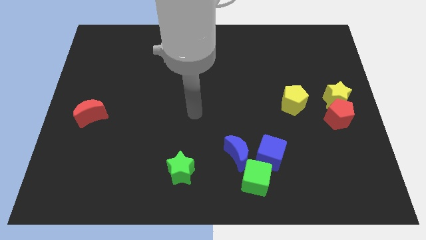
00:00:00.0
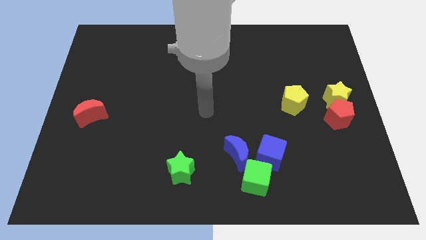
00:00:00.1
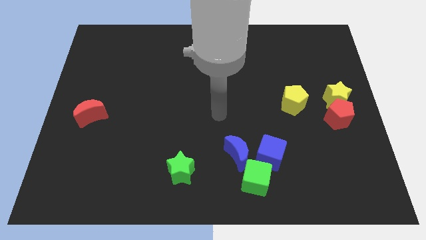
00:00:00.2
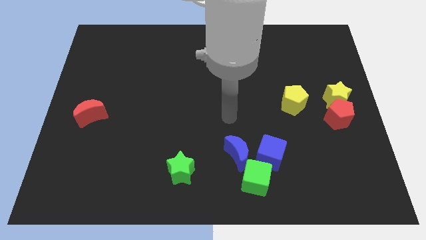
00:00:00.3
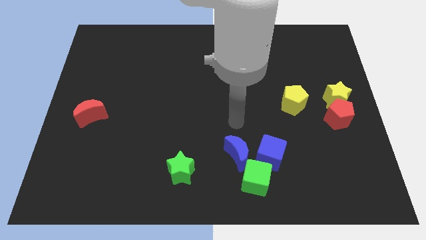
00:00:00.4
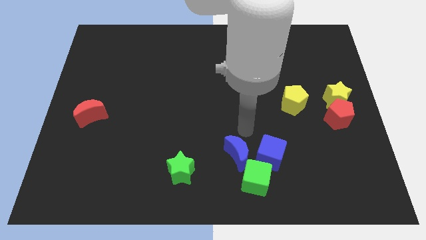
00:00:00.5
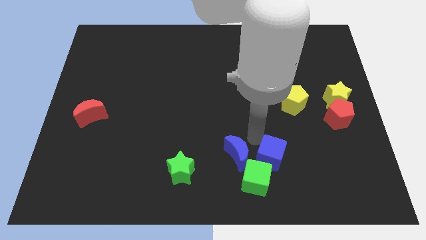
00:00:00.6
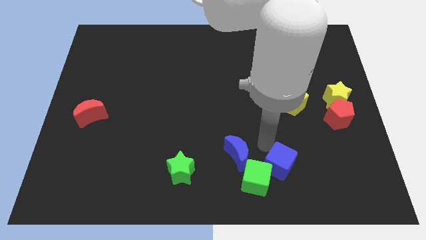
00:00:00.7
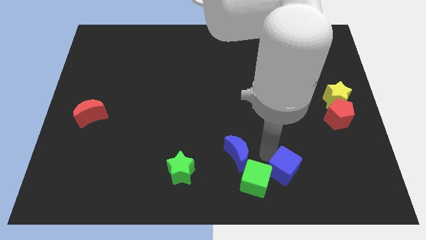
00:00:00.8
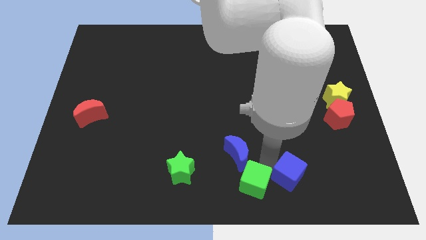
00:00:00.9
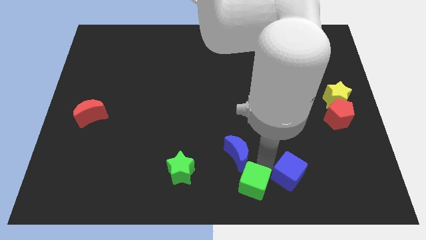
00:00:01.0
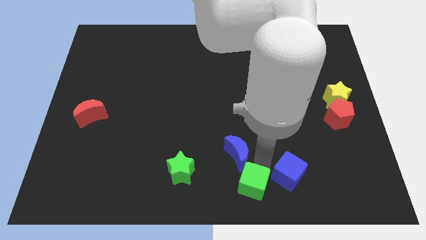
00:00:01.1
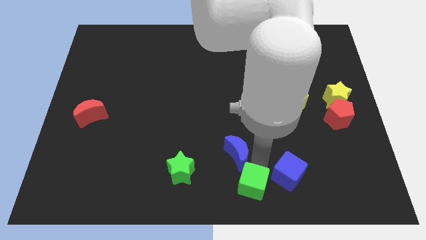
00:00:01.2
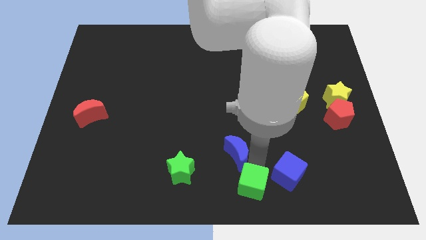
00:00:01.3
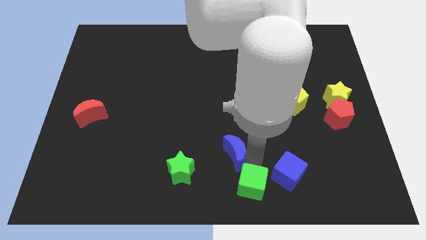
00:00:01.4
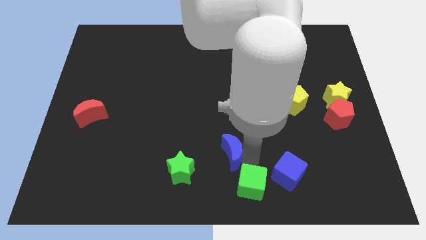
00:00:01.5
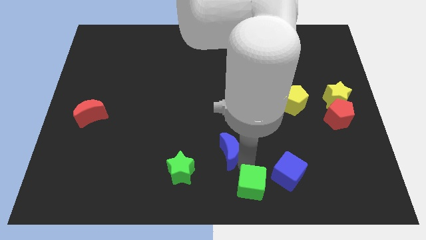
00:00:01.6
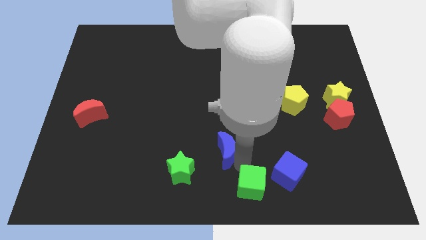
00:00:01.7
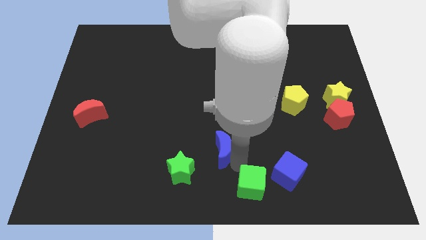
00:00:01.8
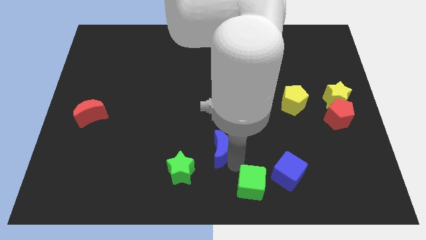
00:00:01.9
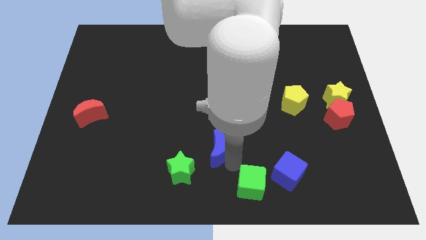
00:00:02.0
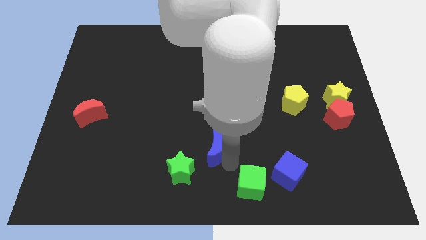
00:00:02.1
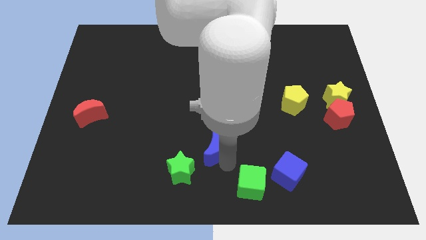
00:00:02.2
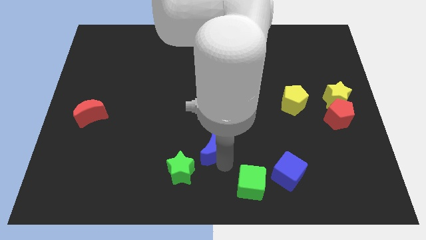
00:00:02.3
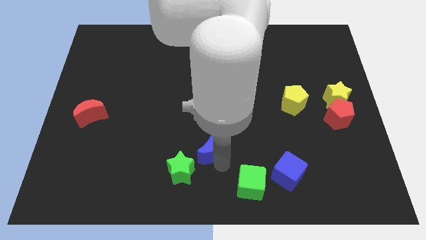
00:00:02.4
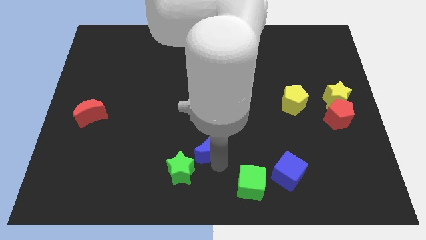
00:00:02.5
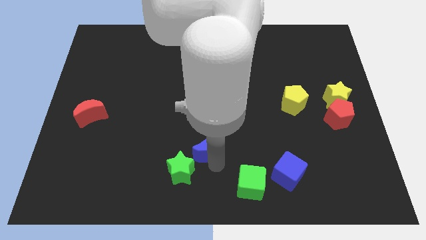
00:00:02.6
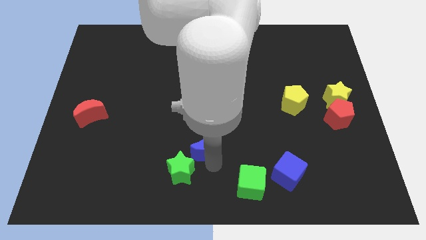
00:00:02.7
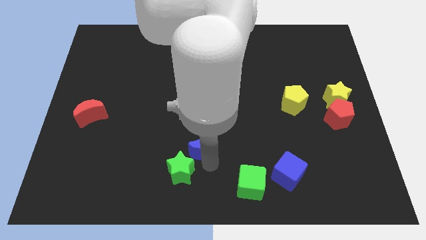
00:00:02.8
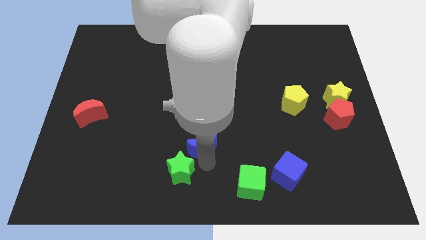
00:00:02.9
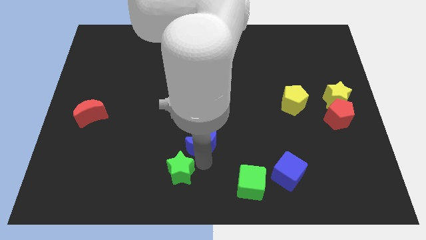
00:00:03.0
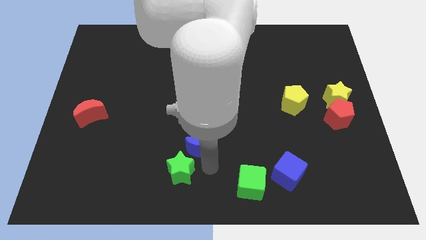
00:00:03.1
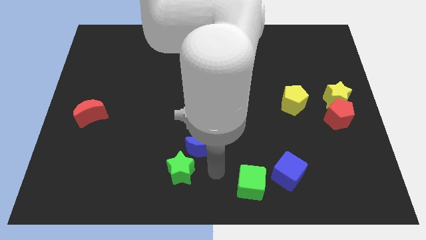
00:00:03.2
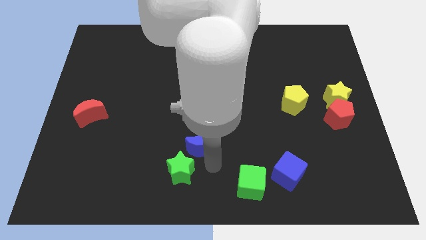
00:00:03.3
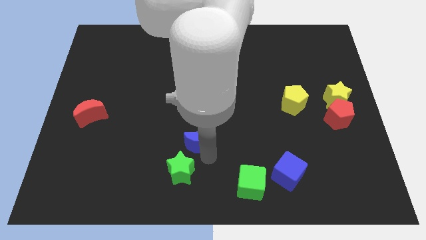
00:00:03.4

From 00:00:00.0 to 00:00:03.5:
slightly slide the blue moon upwards and to the left diagonally

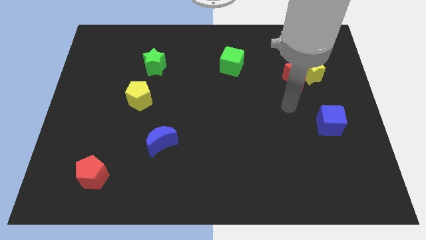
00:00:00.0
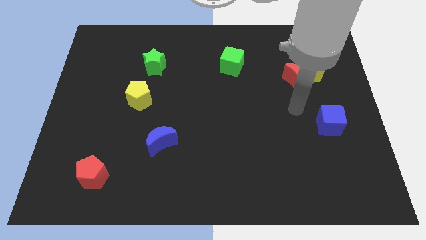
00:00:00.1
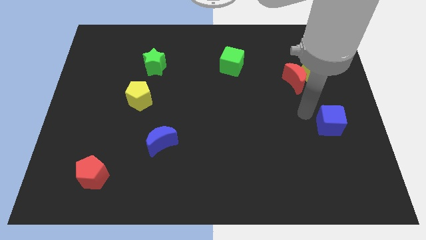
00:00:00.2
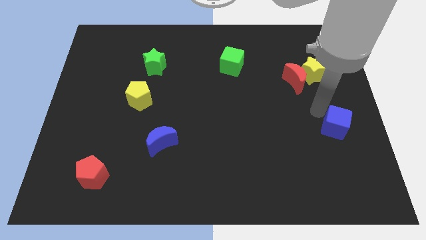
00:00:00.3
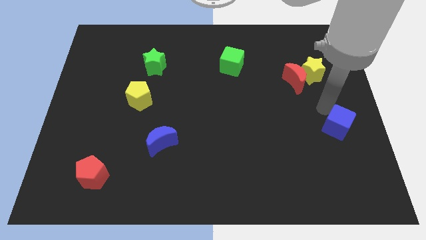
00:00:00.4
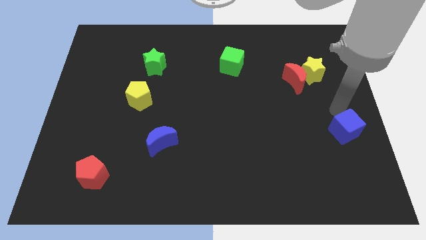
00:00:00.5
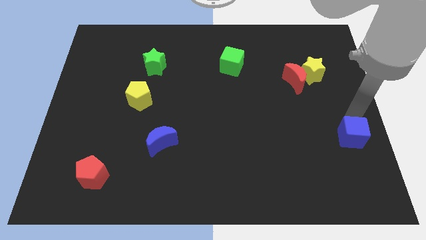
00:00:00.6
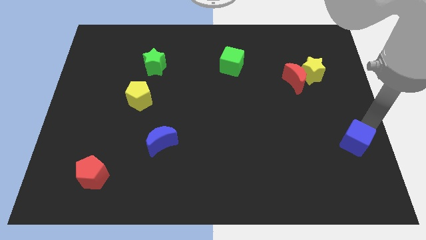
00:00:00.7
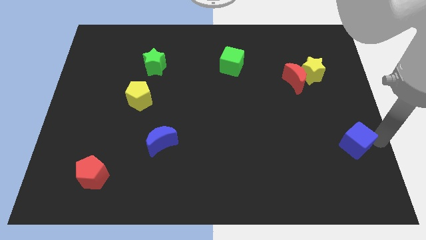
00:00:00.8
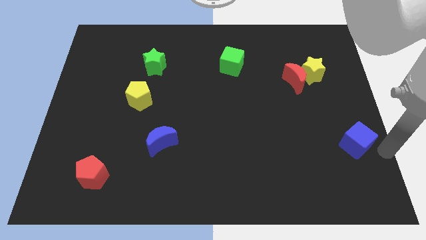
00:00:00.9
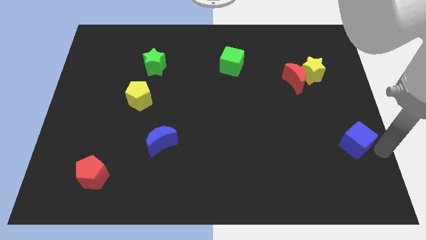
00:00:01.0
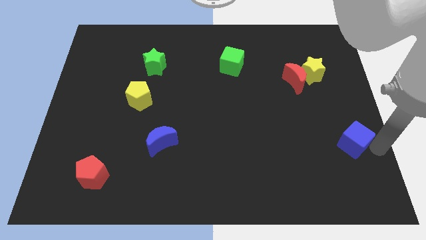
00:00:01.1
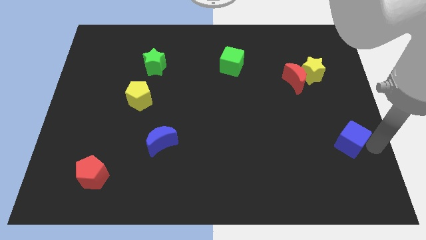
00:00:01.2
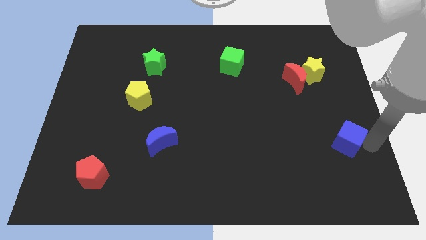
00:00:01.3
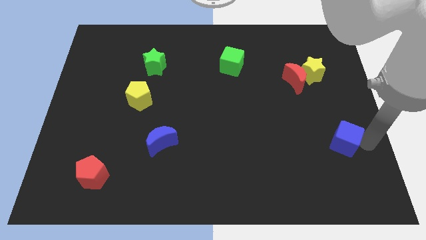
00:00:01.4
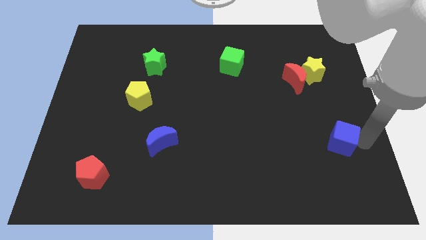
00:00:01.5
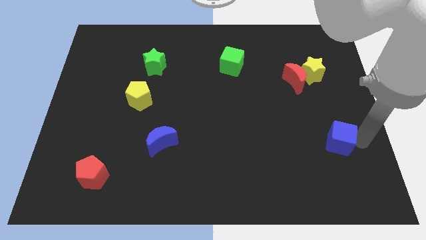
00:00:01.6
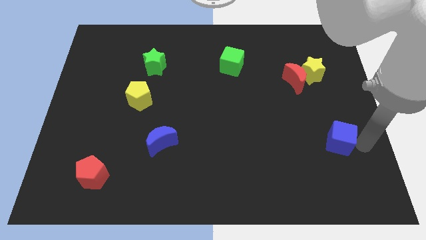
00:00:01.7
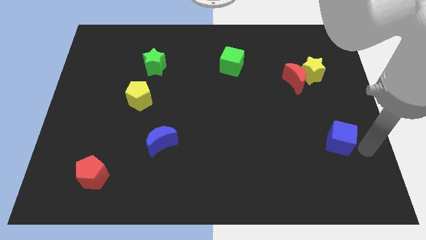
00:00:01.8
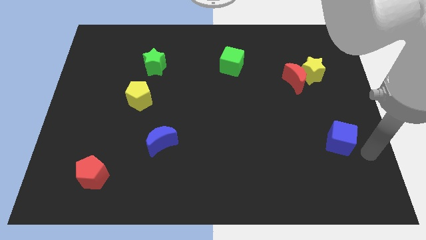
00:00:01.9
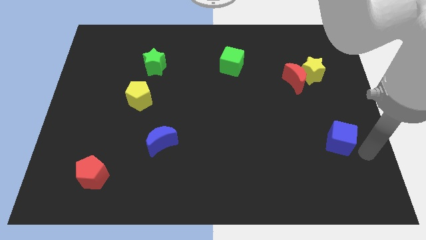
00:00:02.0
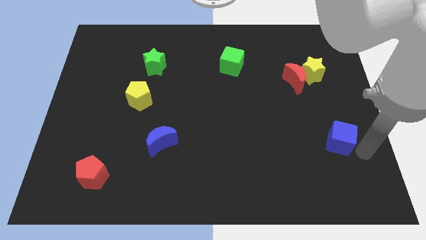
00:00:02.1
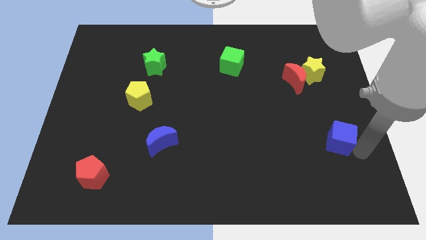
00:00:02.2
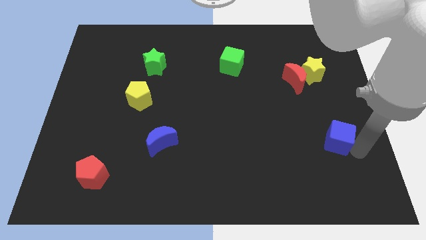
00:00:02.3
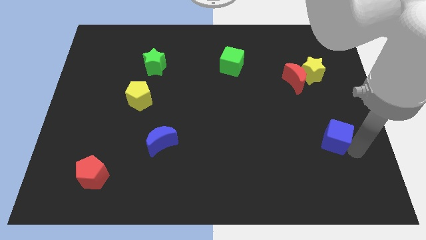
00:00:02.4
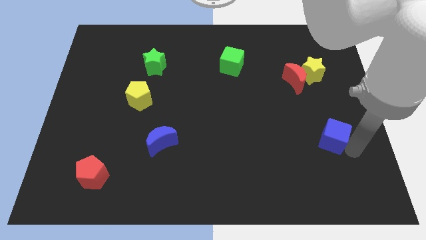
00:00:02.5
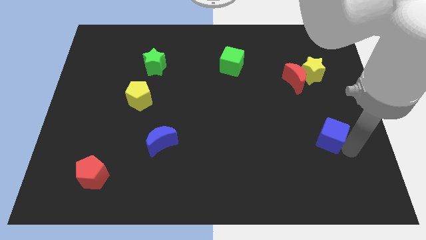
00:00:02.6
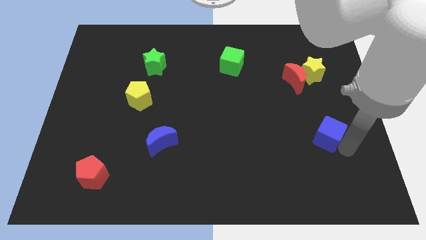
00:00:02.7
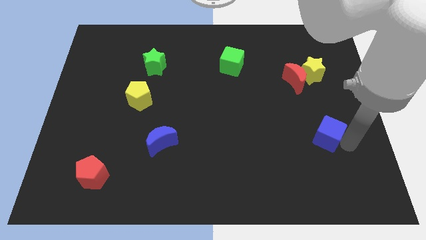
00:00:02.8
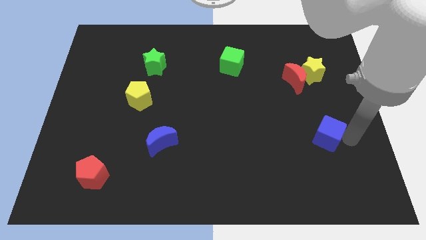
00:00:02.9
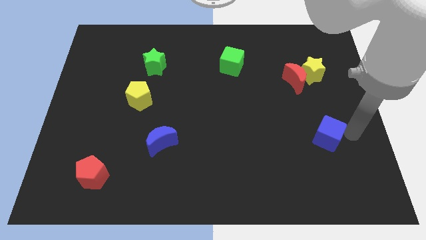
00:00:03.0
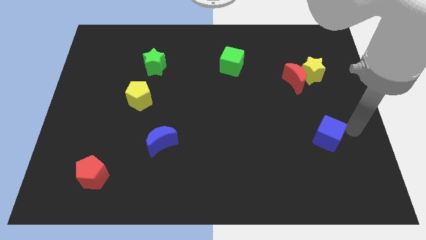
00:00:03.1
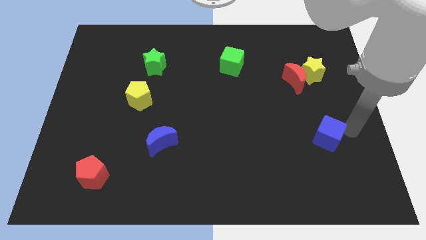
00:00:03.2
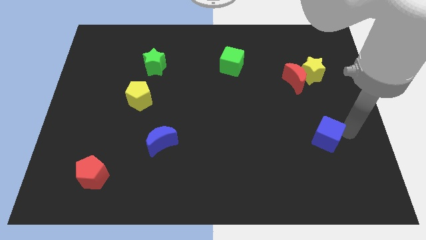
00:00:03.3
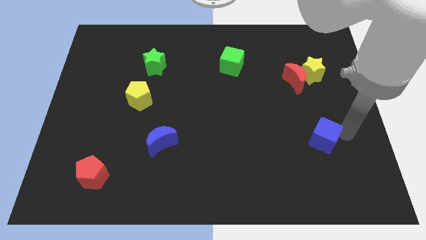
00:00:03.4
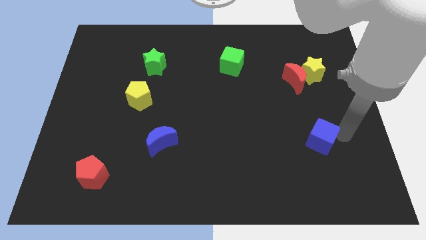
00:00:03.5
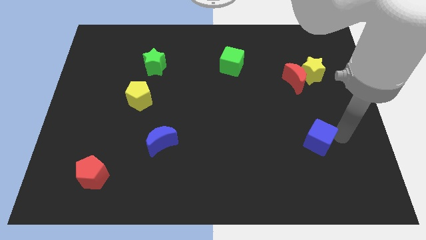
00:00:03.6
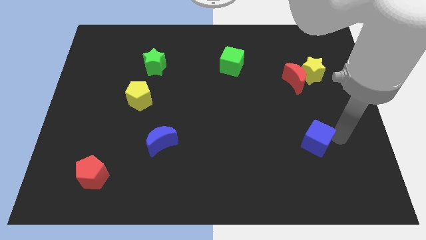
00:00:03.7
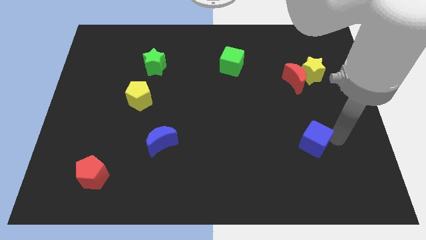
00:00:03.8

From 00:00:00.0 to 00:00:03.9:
slide the blue cube downwards and left somewhat

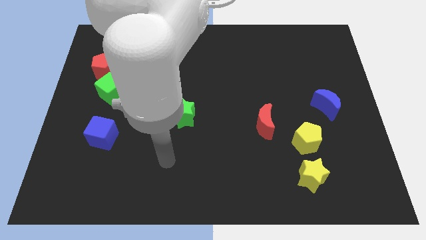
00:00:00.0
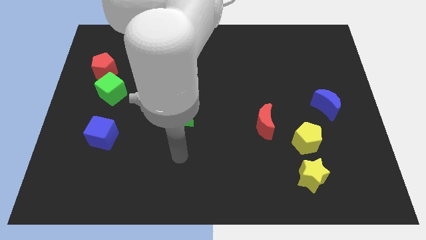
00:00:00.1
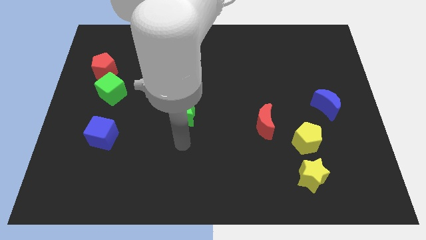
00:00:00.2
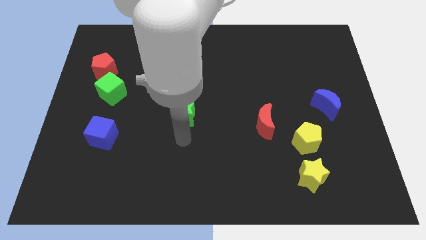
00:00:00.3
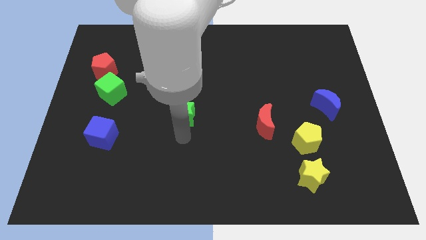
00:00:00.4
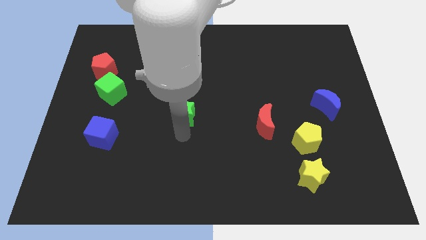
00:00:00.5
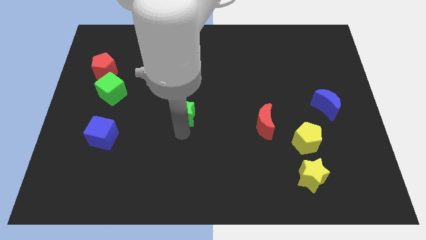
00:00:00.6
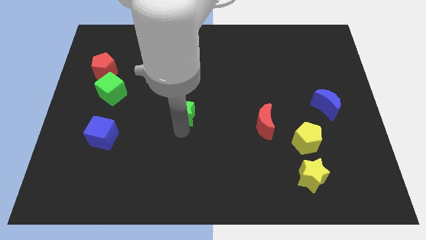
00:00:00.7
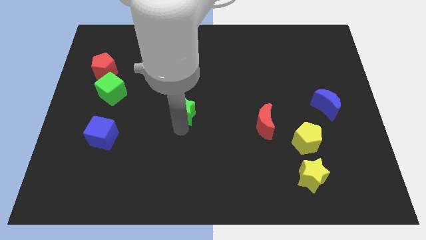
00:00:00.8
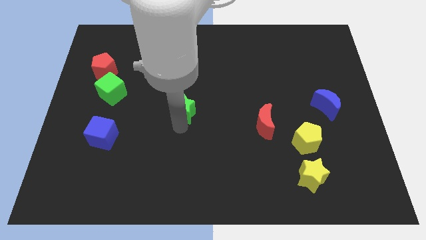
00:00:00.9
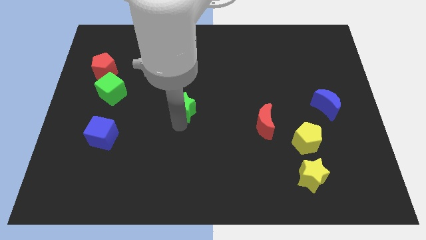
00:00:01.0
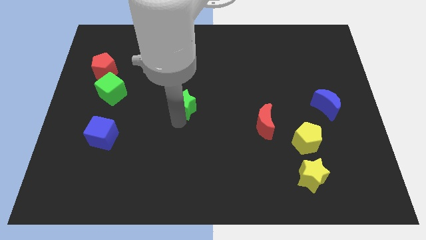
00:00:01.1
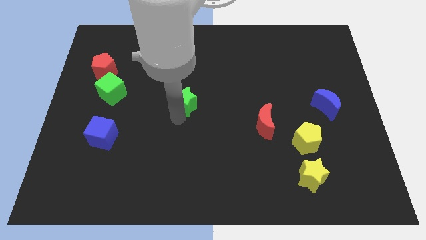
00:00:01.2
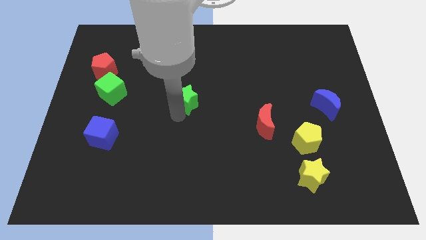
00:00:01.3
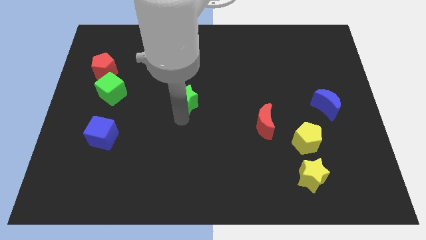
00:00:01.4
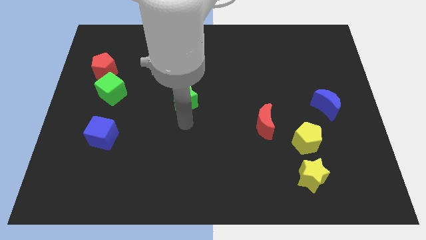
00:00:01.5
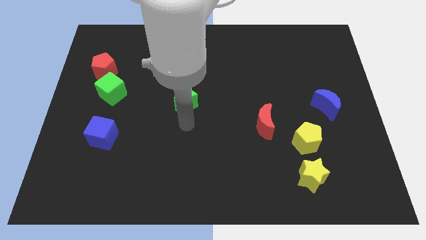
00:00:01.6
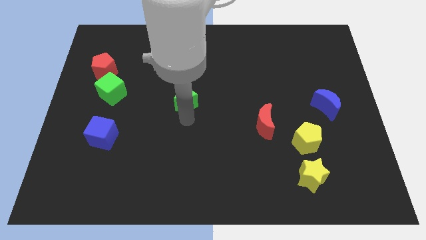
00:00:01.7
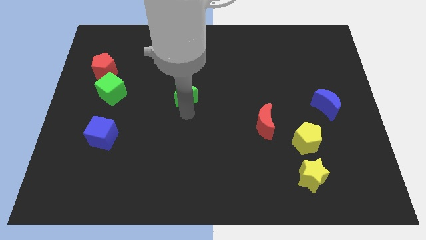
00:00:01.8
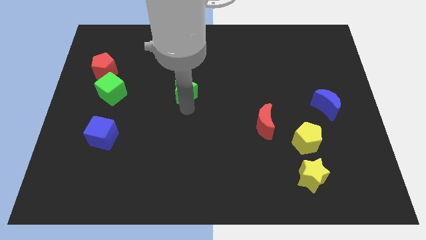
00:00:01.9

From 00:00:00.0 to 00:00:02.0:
slide the green star somewhat upwards
